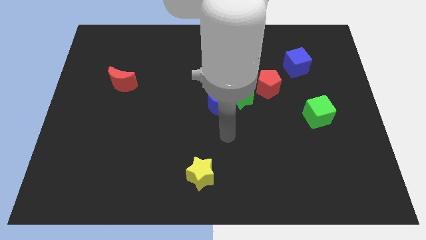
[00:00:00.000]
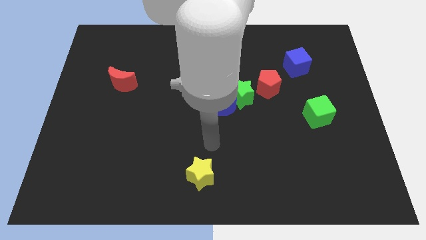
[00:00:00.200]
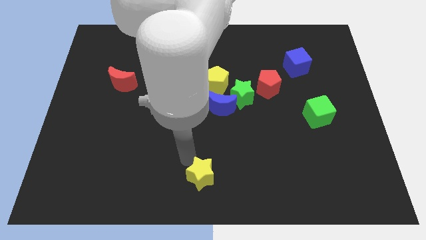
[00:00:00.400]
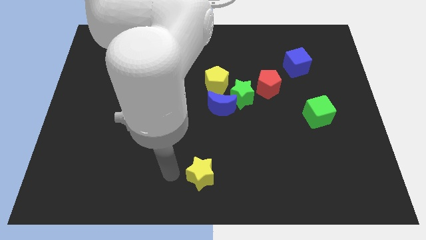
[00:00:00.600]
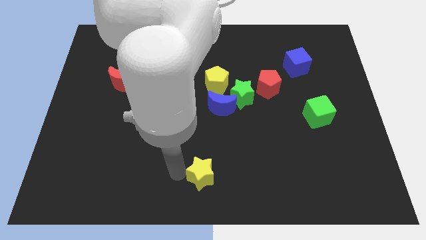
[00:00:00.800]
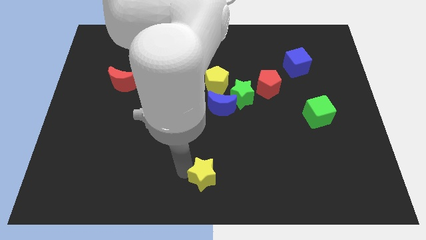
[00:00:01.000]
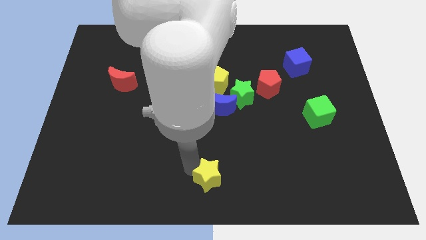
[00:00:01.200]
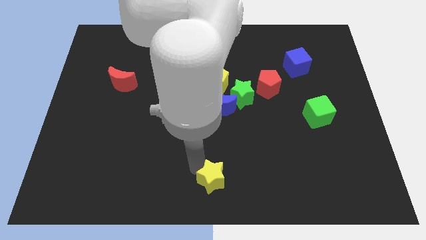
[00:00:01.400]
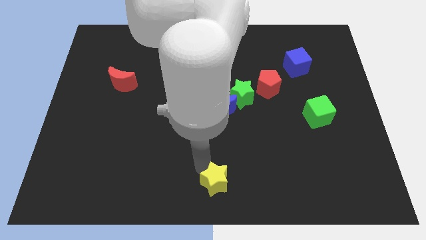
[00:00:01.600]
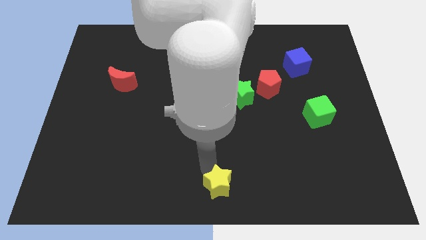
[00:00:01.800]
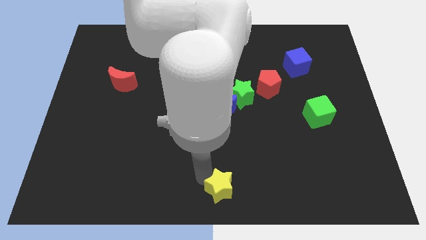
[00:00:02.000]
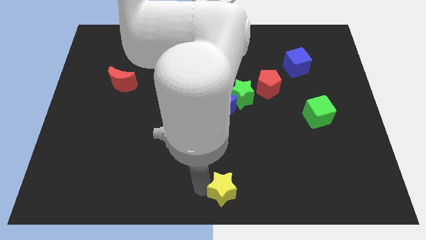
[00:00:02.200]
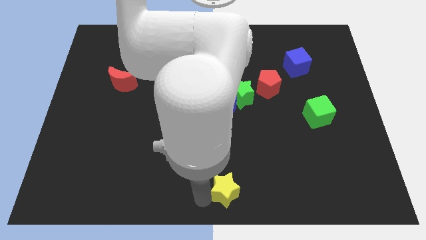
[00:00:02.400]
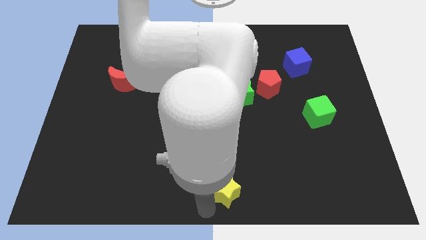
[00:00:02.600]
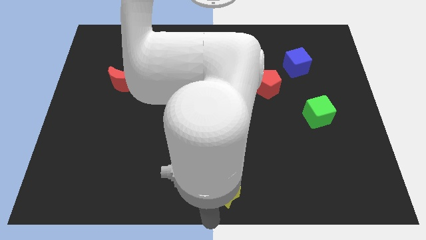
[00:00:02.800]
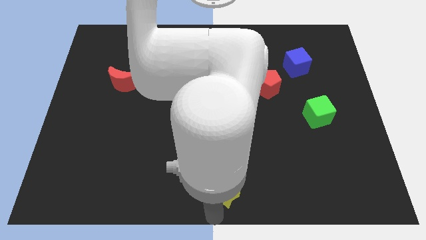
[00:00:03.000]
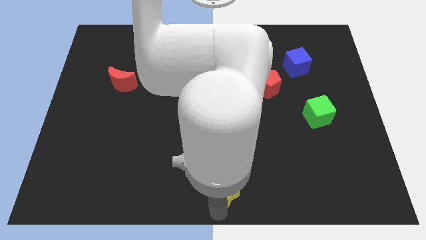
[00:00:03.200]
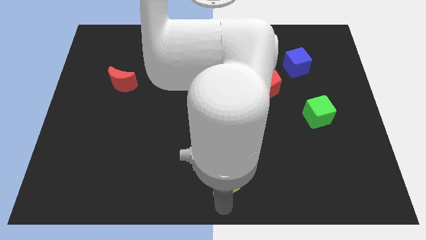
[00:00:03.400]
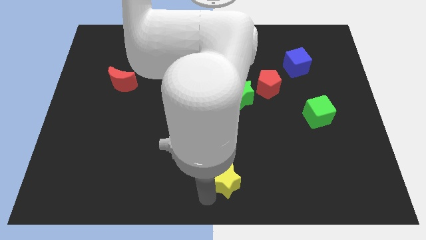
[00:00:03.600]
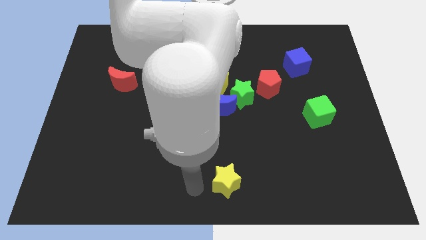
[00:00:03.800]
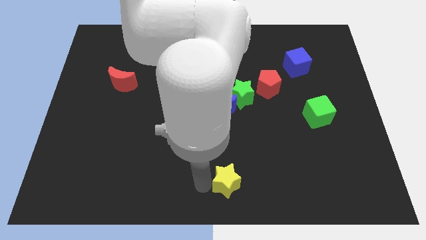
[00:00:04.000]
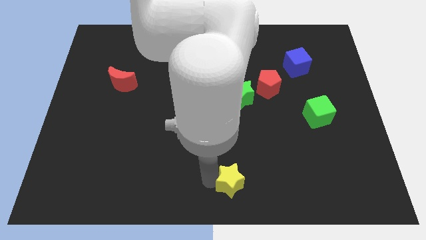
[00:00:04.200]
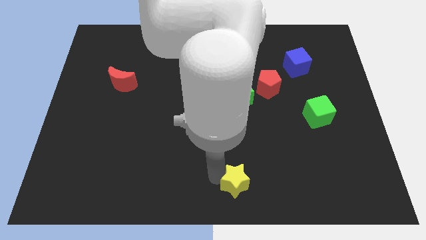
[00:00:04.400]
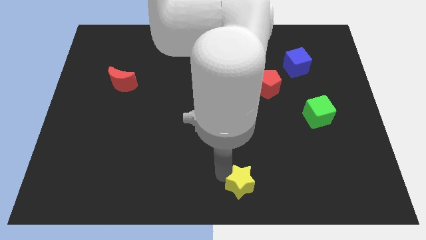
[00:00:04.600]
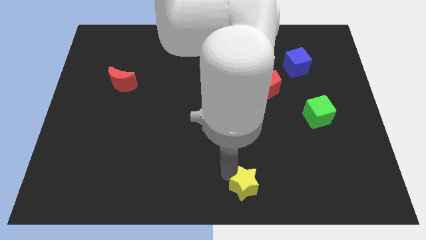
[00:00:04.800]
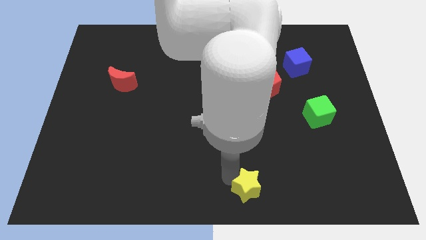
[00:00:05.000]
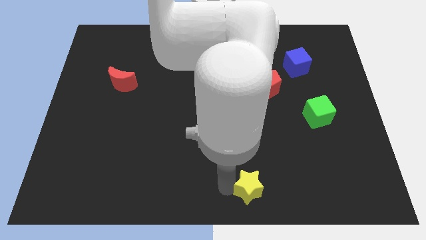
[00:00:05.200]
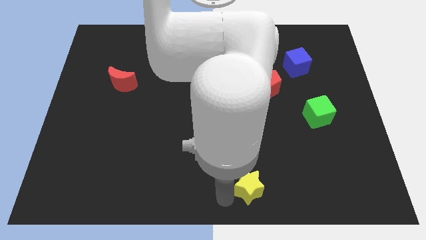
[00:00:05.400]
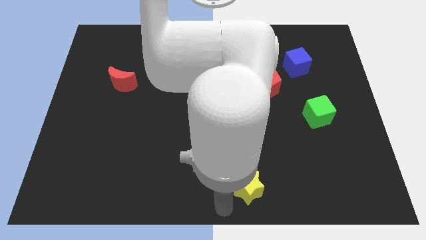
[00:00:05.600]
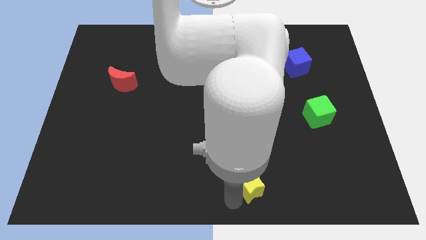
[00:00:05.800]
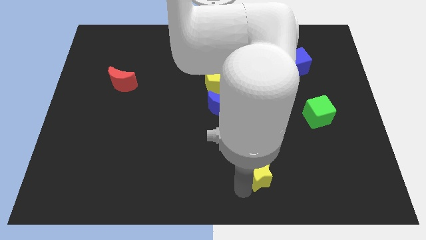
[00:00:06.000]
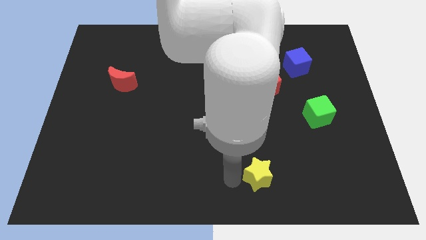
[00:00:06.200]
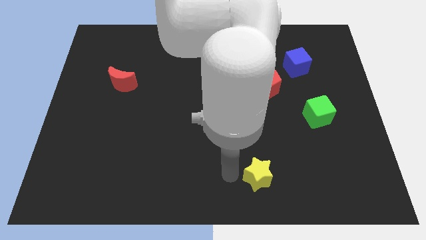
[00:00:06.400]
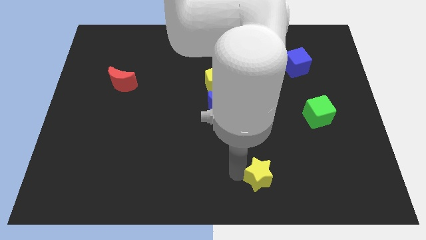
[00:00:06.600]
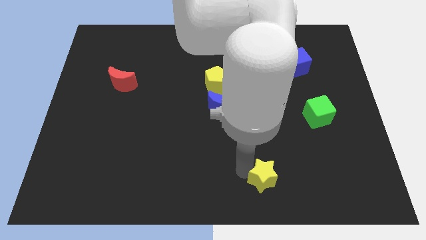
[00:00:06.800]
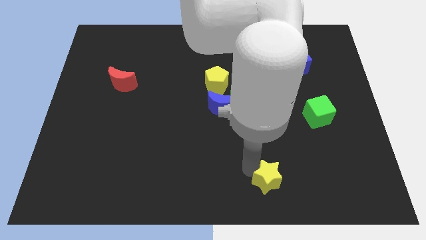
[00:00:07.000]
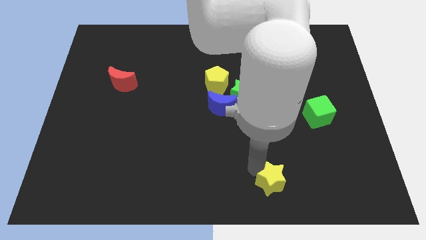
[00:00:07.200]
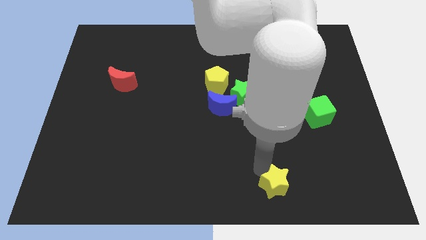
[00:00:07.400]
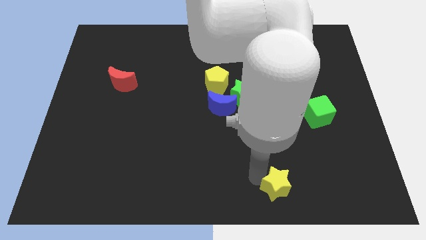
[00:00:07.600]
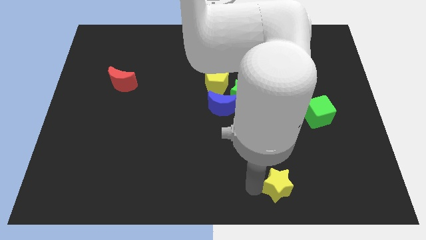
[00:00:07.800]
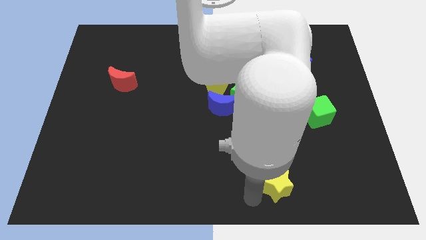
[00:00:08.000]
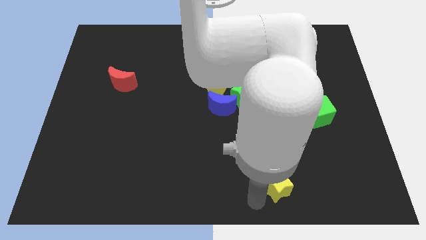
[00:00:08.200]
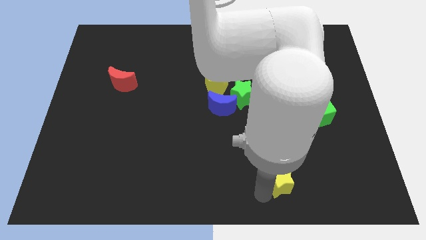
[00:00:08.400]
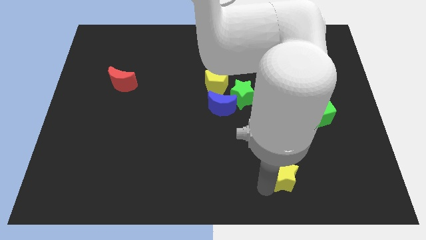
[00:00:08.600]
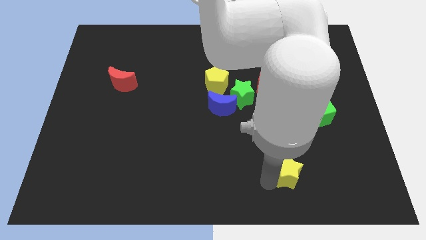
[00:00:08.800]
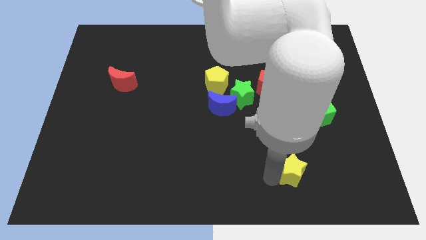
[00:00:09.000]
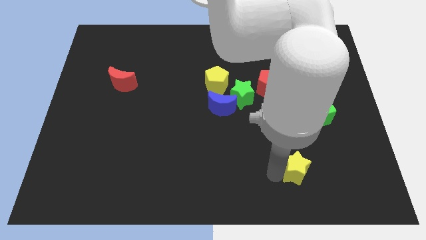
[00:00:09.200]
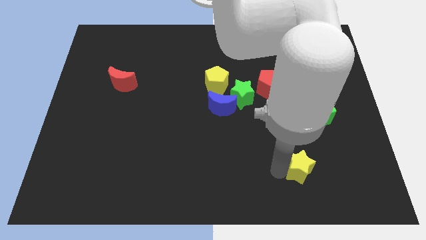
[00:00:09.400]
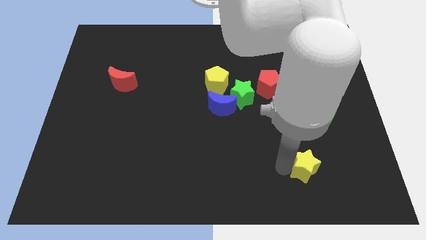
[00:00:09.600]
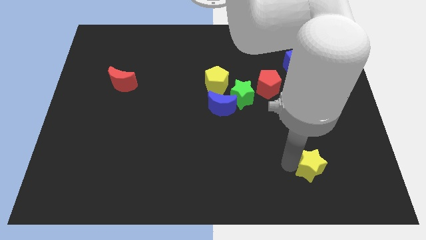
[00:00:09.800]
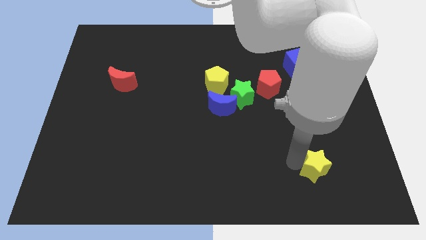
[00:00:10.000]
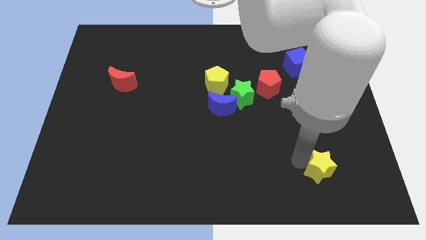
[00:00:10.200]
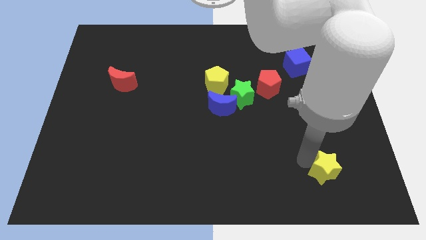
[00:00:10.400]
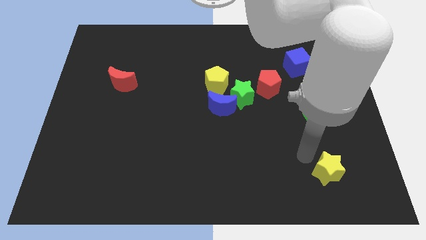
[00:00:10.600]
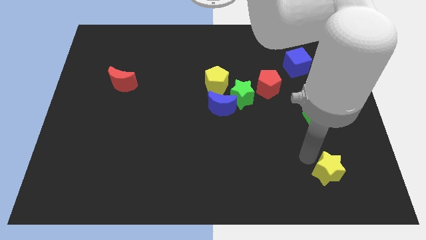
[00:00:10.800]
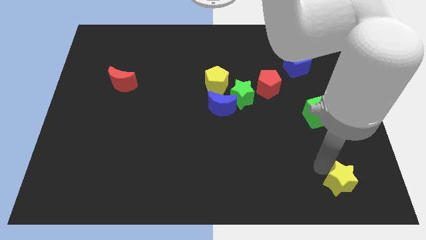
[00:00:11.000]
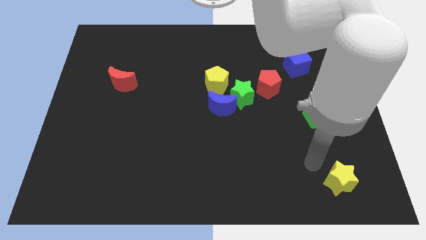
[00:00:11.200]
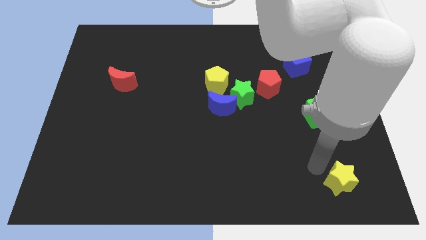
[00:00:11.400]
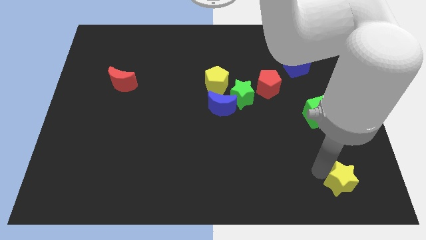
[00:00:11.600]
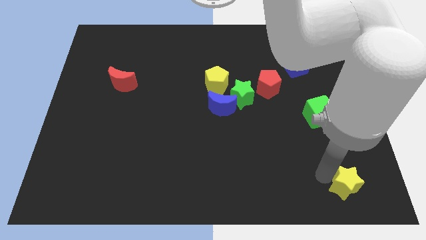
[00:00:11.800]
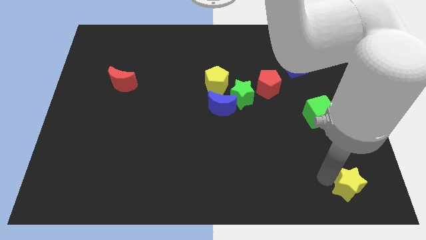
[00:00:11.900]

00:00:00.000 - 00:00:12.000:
push the yellow star to the lower right corner
